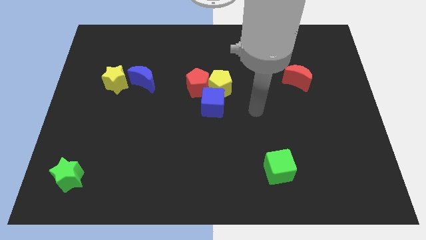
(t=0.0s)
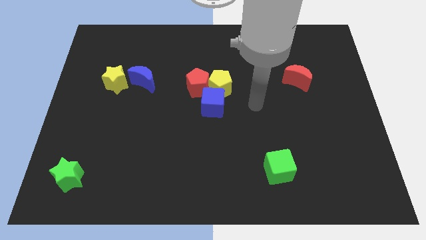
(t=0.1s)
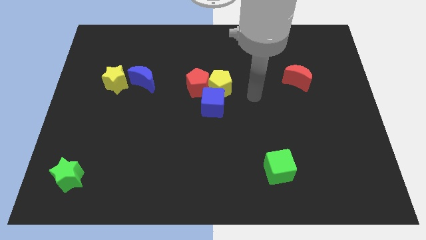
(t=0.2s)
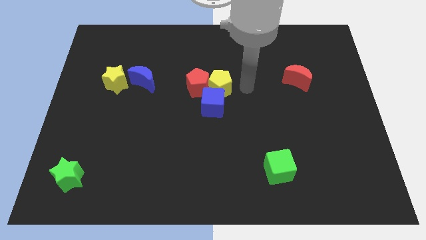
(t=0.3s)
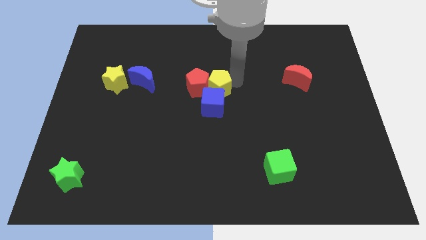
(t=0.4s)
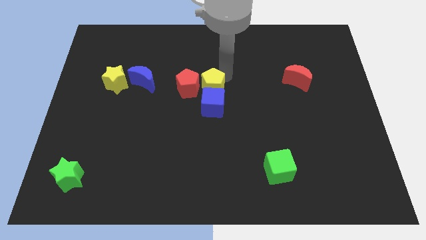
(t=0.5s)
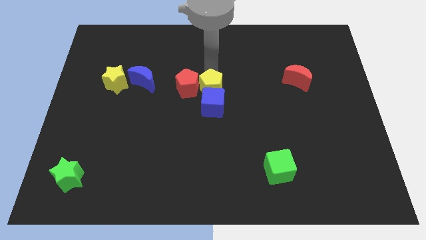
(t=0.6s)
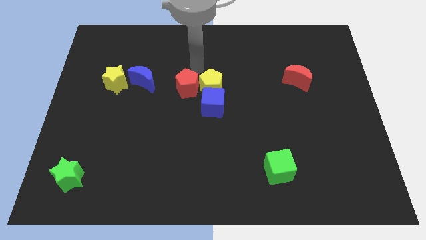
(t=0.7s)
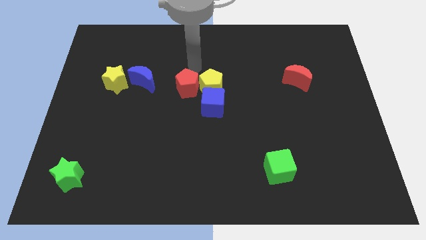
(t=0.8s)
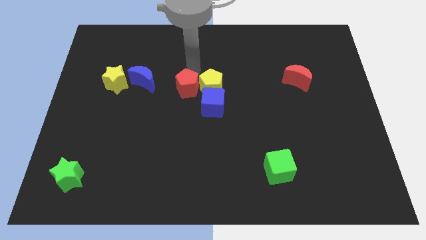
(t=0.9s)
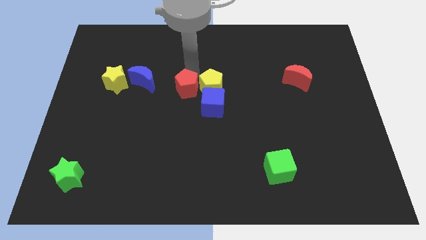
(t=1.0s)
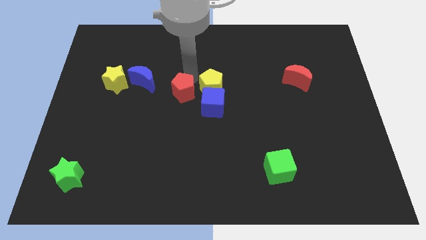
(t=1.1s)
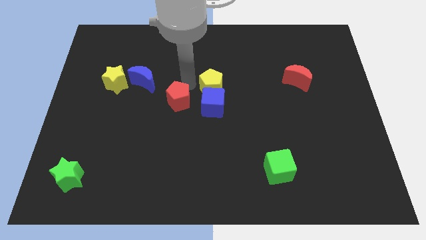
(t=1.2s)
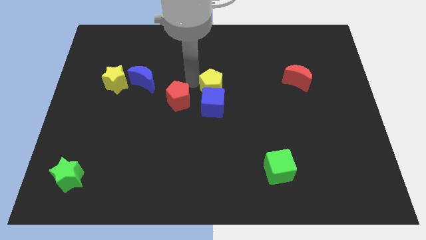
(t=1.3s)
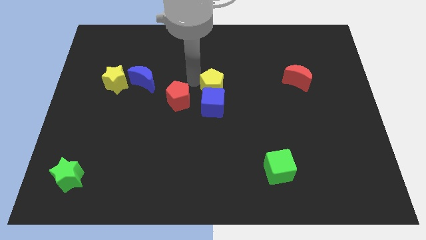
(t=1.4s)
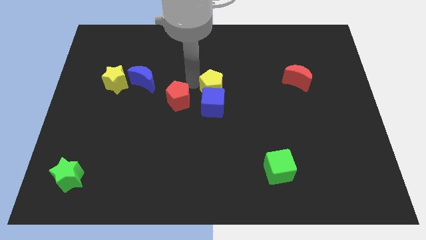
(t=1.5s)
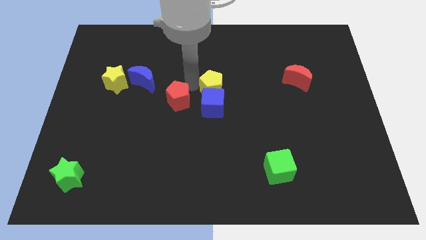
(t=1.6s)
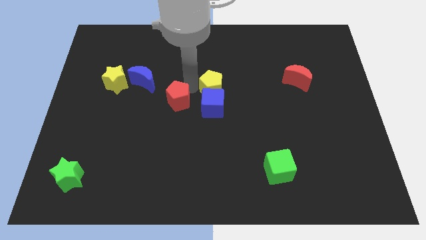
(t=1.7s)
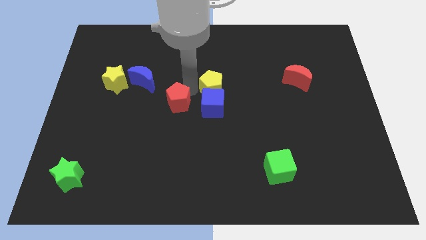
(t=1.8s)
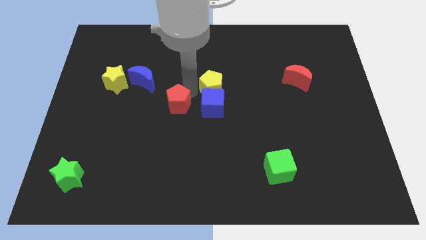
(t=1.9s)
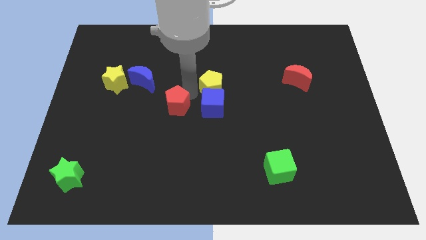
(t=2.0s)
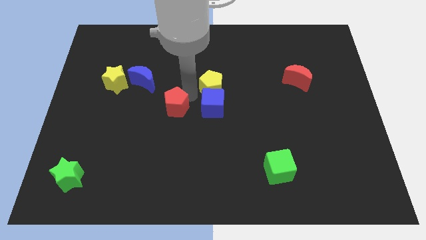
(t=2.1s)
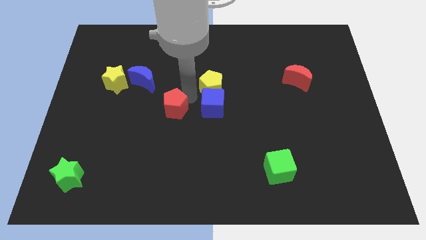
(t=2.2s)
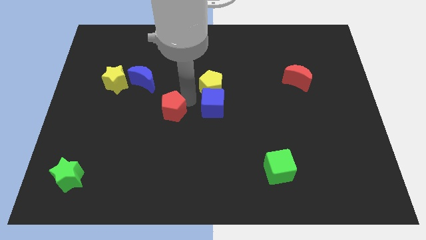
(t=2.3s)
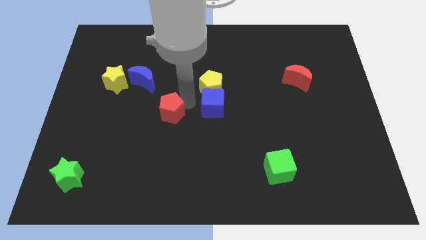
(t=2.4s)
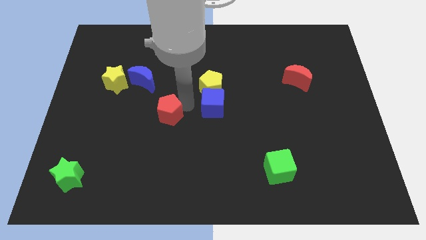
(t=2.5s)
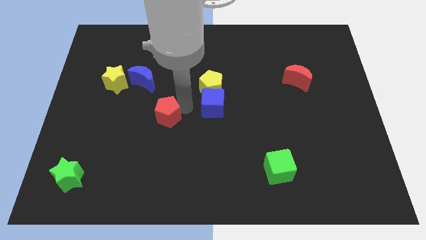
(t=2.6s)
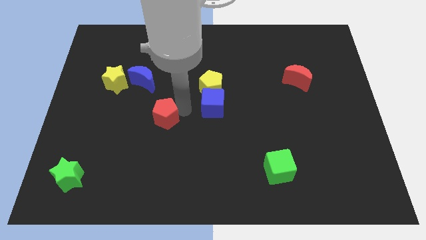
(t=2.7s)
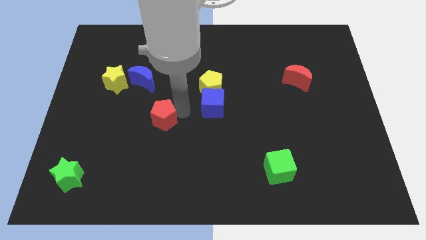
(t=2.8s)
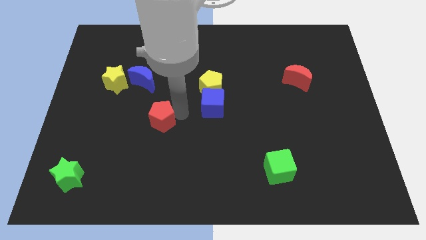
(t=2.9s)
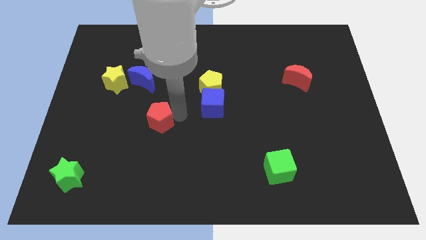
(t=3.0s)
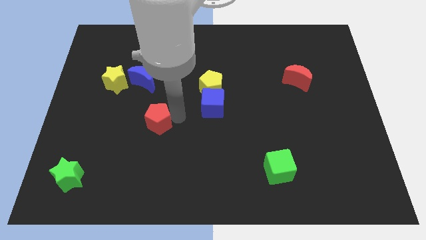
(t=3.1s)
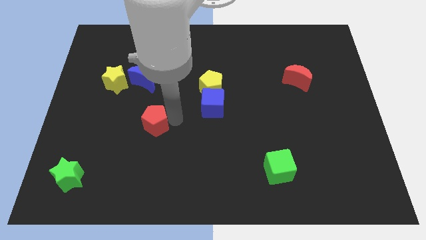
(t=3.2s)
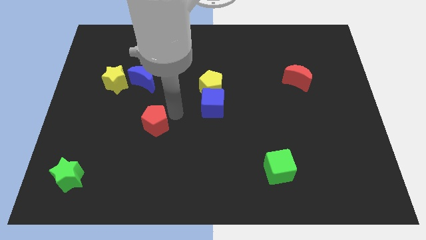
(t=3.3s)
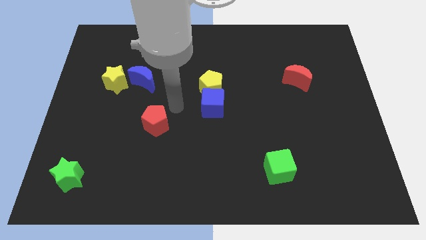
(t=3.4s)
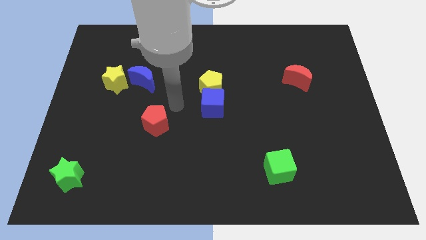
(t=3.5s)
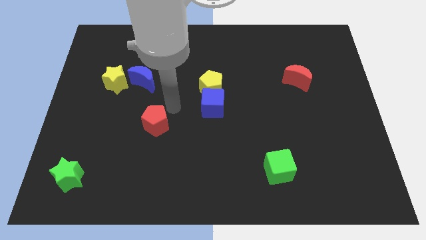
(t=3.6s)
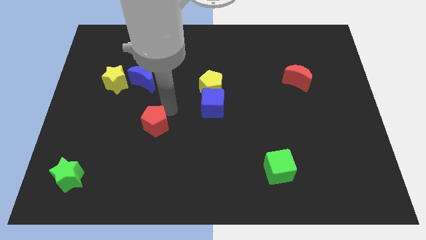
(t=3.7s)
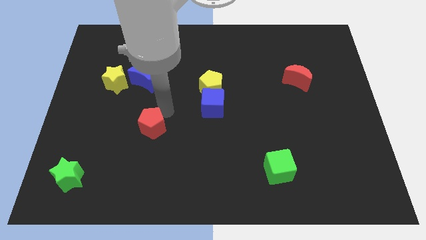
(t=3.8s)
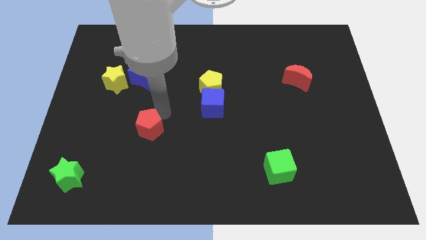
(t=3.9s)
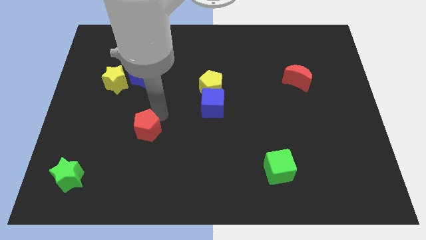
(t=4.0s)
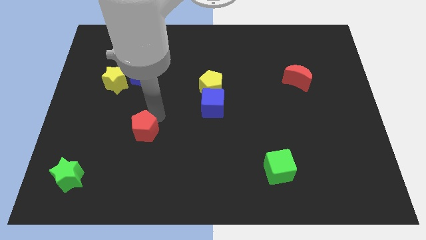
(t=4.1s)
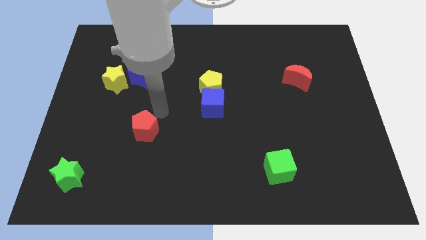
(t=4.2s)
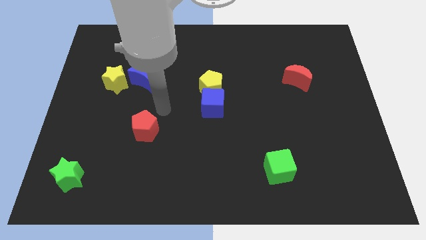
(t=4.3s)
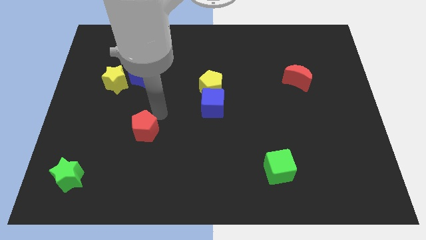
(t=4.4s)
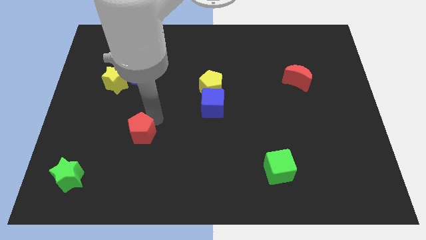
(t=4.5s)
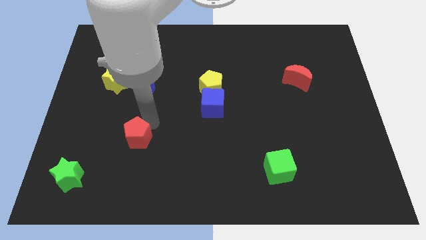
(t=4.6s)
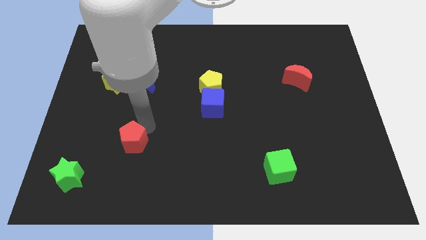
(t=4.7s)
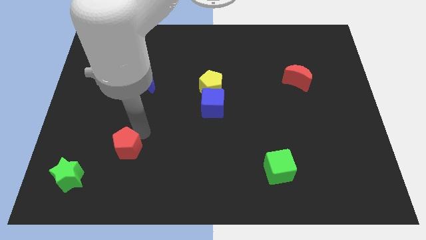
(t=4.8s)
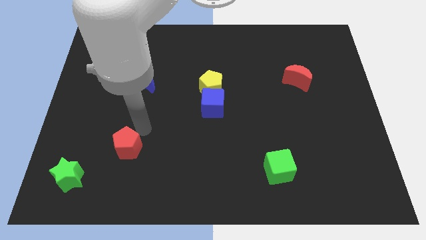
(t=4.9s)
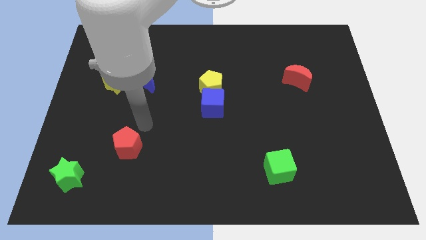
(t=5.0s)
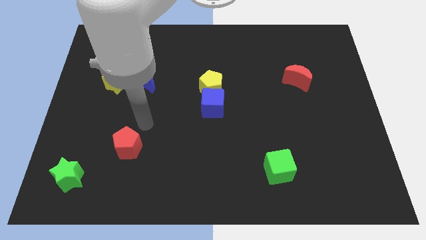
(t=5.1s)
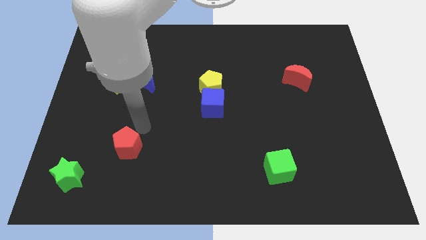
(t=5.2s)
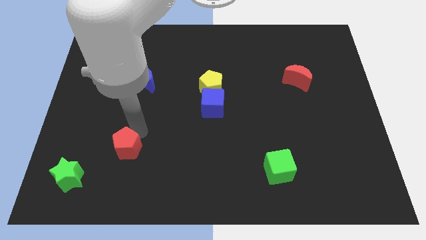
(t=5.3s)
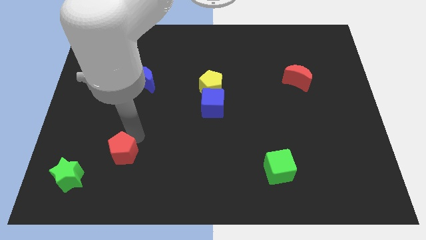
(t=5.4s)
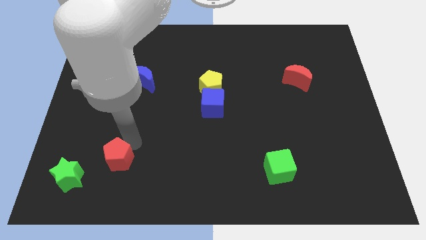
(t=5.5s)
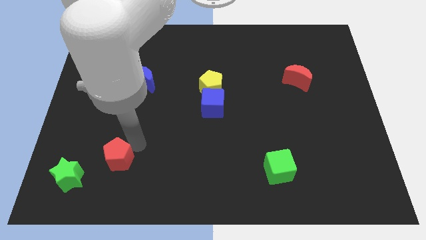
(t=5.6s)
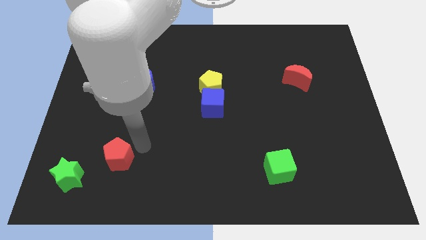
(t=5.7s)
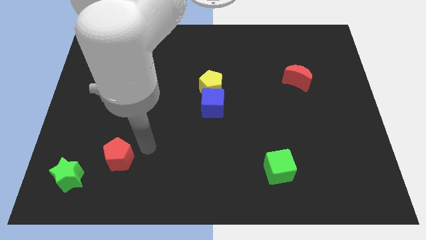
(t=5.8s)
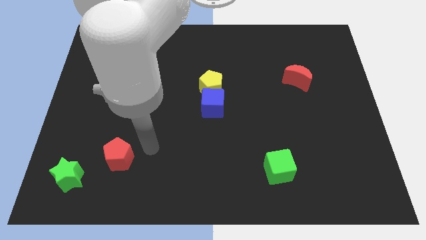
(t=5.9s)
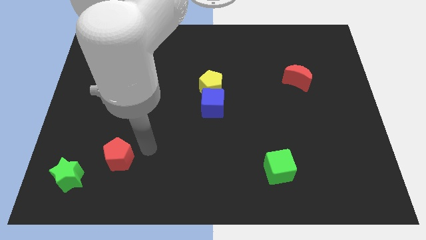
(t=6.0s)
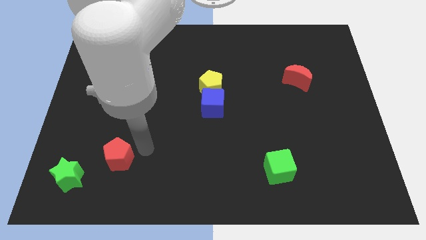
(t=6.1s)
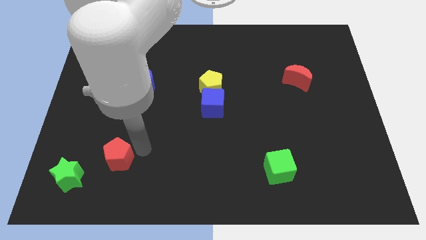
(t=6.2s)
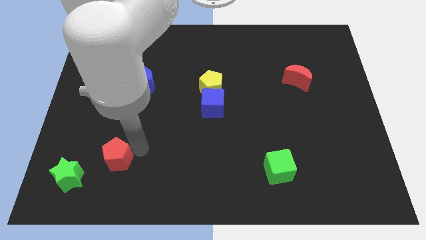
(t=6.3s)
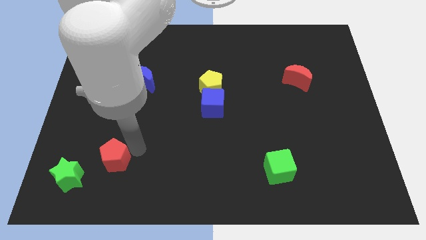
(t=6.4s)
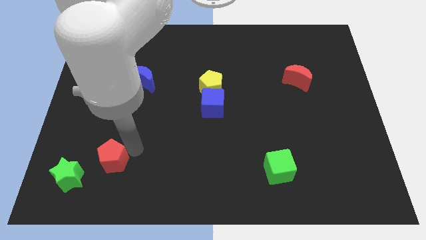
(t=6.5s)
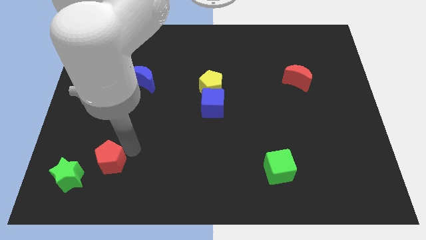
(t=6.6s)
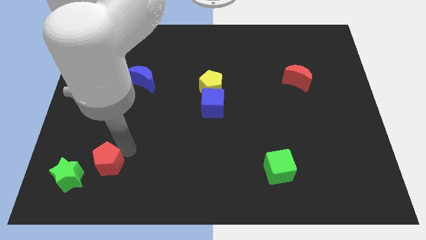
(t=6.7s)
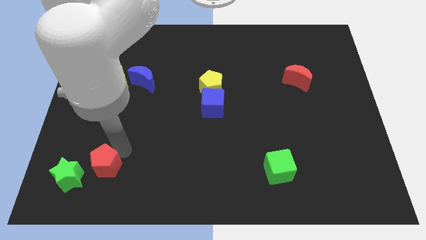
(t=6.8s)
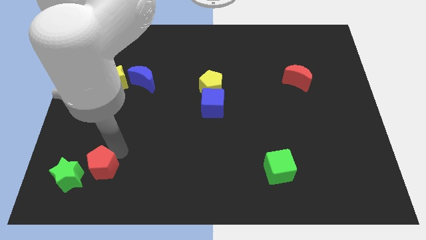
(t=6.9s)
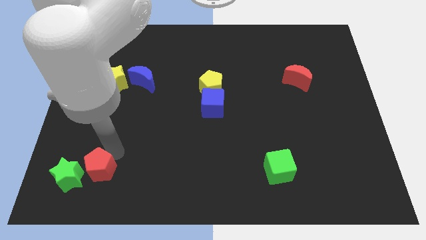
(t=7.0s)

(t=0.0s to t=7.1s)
push the red pentagon towards the green star
